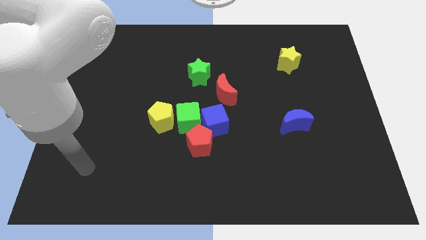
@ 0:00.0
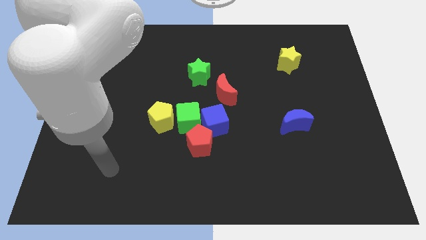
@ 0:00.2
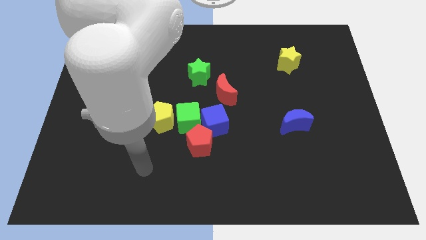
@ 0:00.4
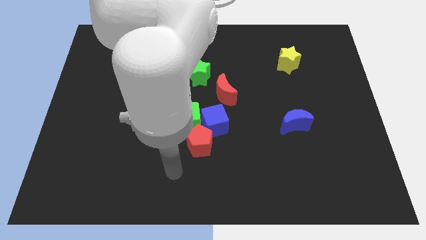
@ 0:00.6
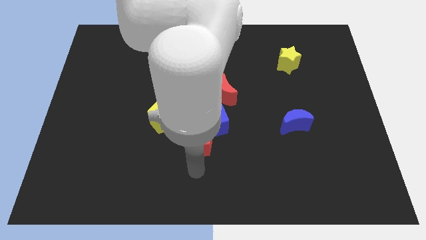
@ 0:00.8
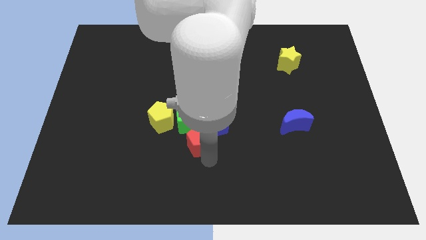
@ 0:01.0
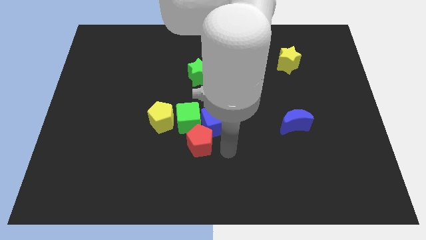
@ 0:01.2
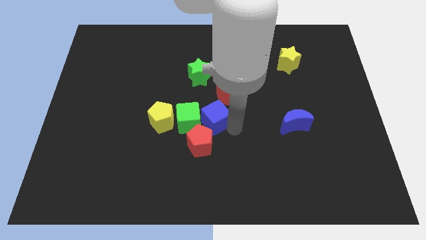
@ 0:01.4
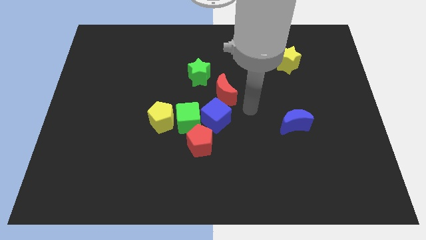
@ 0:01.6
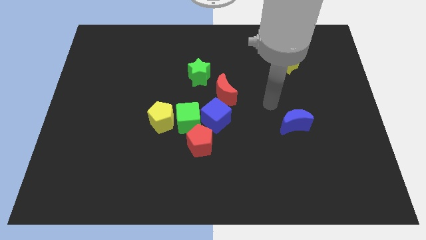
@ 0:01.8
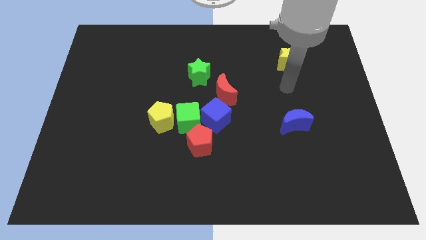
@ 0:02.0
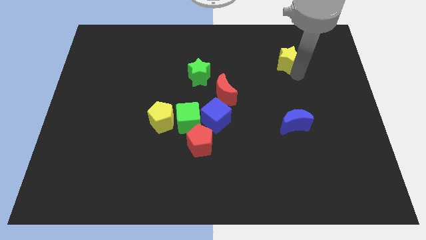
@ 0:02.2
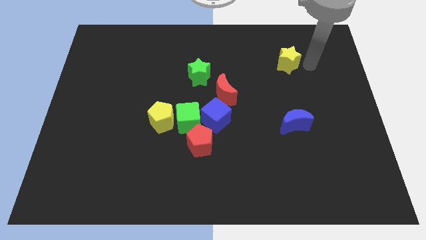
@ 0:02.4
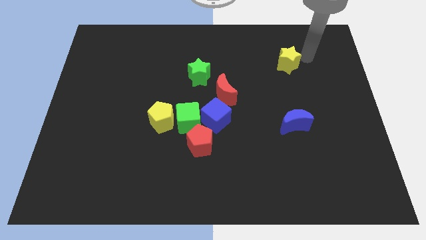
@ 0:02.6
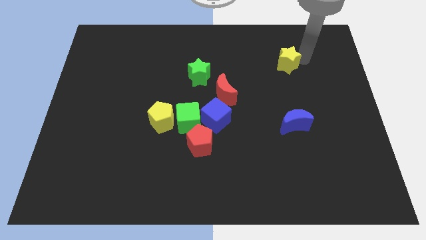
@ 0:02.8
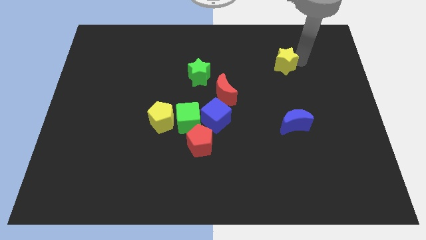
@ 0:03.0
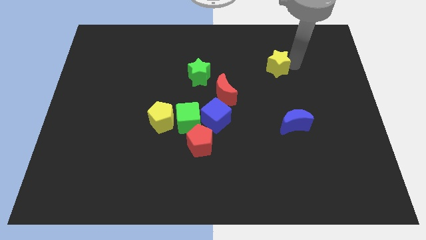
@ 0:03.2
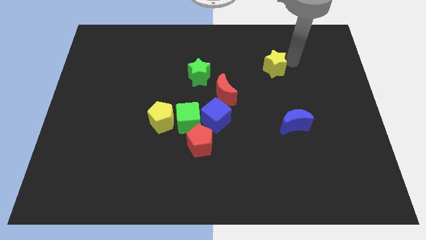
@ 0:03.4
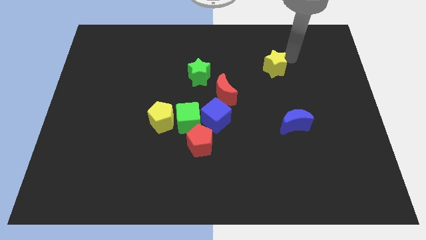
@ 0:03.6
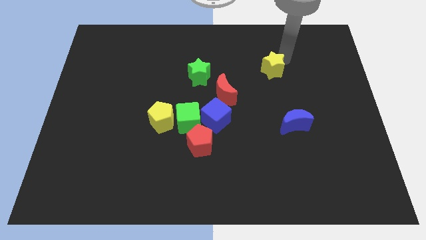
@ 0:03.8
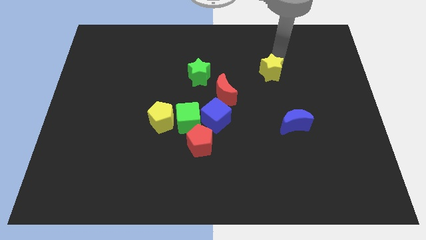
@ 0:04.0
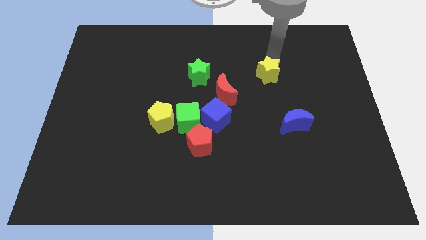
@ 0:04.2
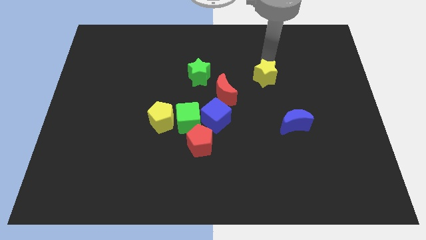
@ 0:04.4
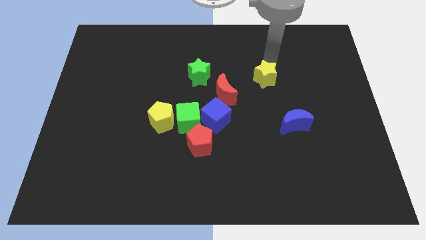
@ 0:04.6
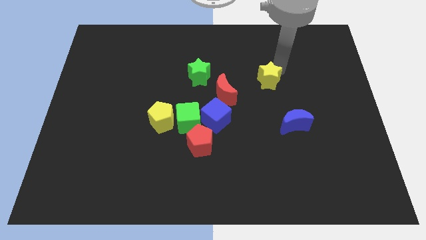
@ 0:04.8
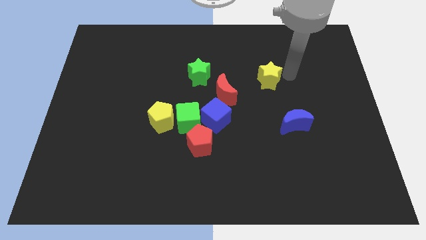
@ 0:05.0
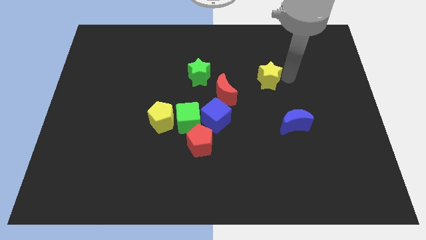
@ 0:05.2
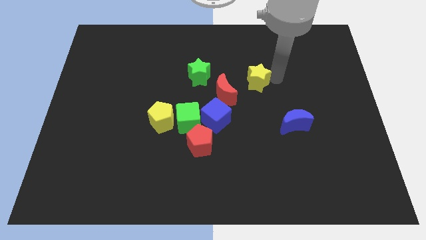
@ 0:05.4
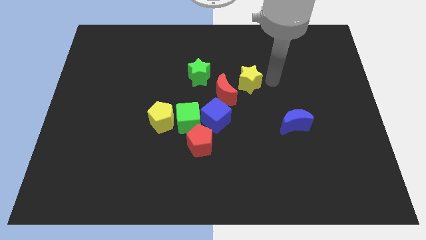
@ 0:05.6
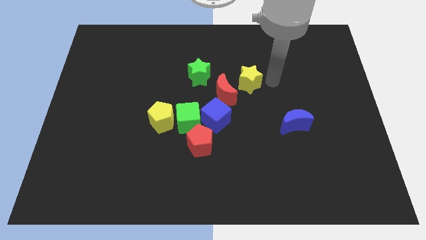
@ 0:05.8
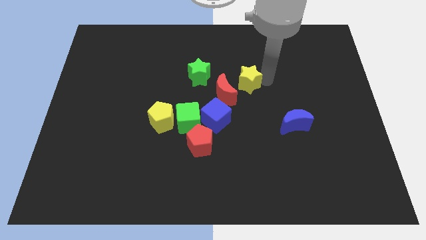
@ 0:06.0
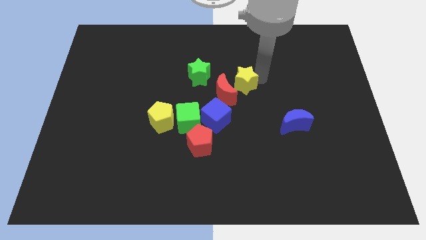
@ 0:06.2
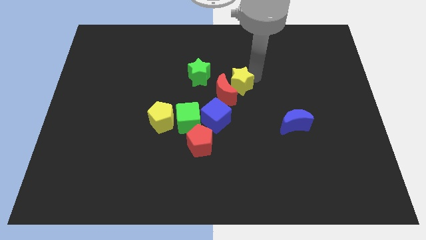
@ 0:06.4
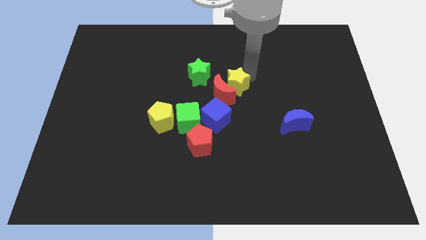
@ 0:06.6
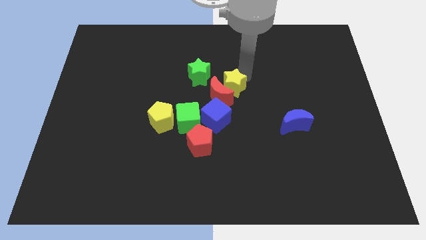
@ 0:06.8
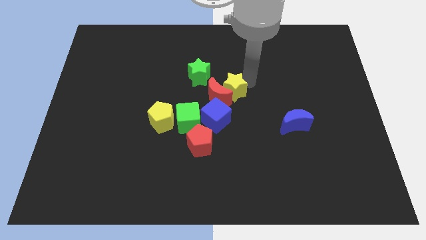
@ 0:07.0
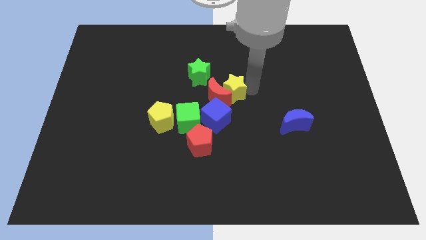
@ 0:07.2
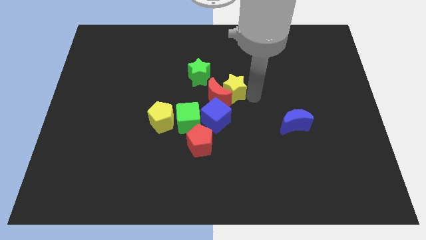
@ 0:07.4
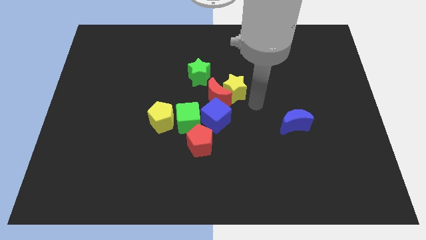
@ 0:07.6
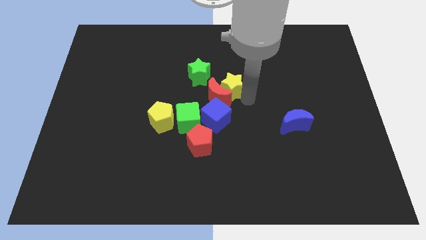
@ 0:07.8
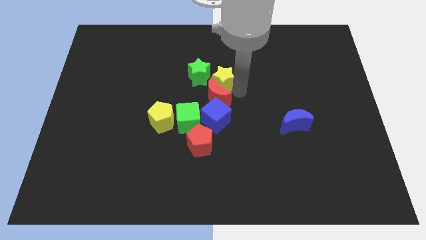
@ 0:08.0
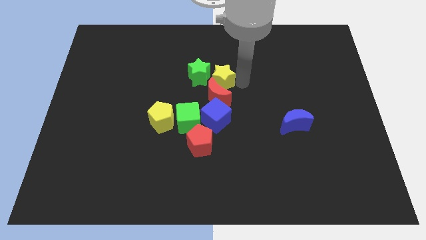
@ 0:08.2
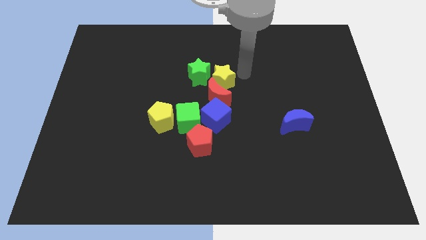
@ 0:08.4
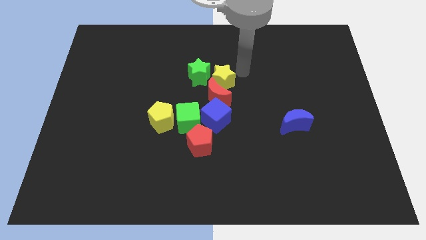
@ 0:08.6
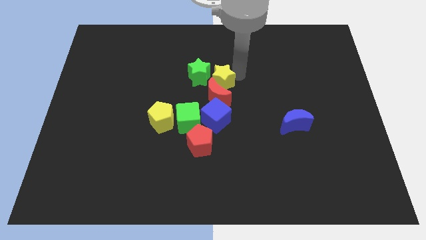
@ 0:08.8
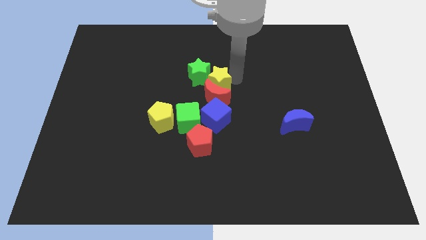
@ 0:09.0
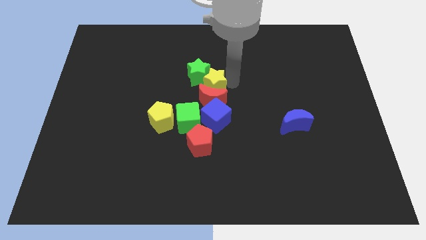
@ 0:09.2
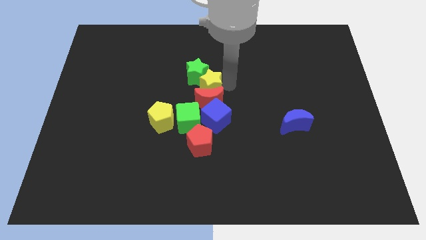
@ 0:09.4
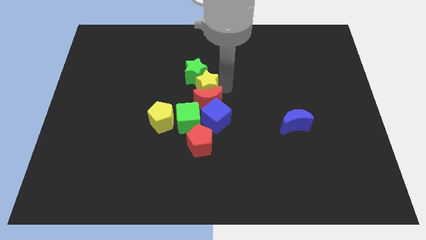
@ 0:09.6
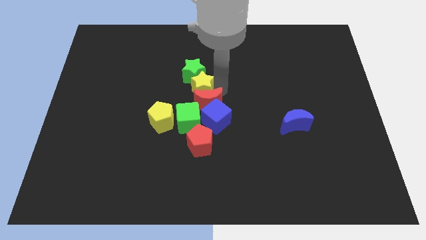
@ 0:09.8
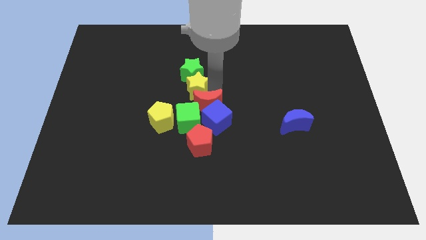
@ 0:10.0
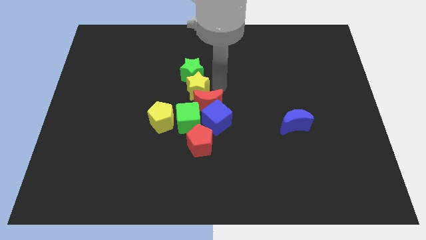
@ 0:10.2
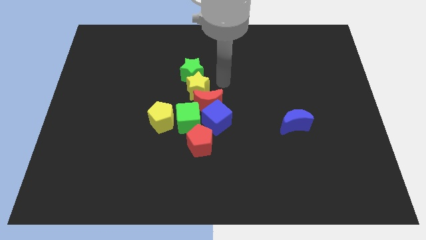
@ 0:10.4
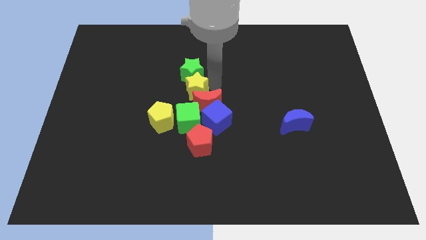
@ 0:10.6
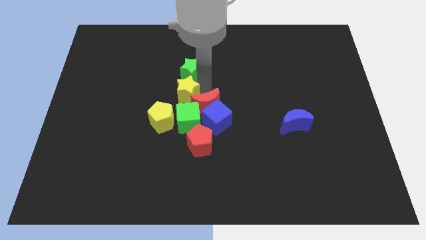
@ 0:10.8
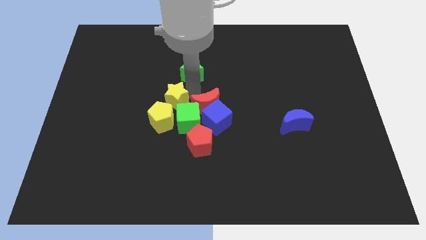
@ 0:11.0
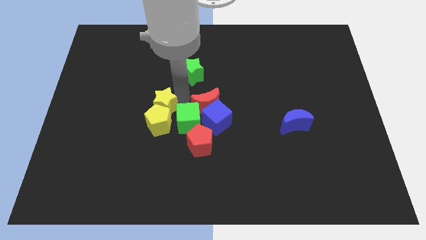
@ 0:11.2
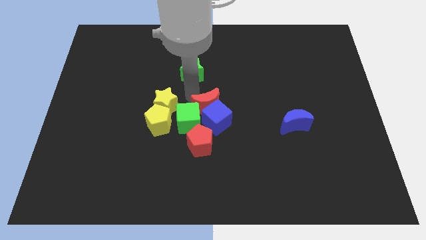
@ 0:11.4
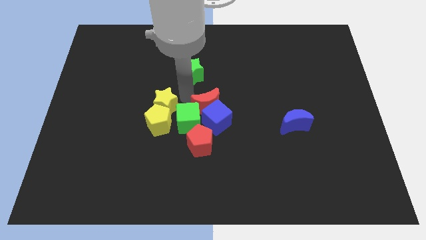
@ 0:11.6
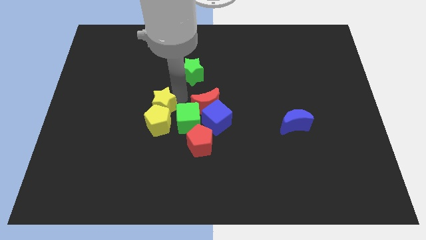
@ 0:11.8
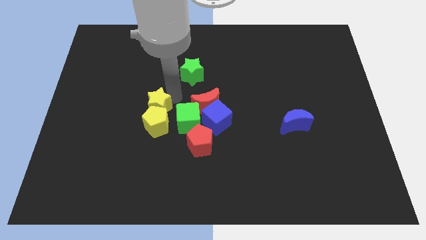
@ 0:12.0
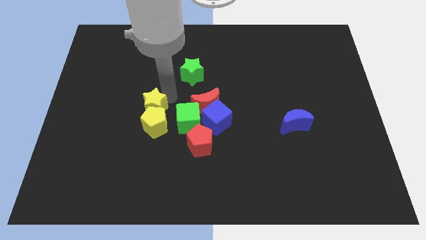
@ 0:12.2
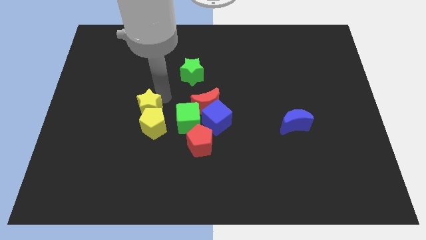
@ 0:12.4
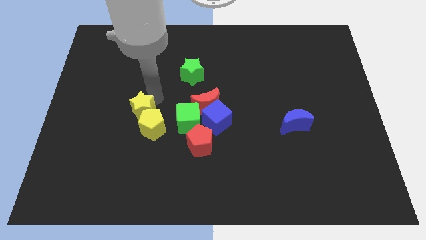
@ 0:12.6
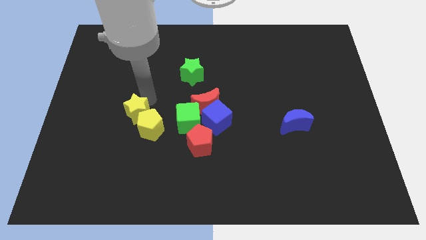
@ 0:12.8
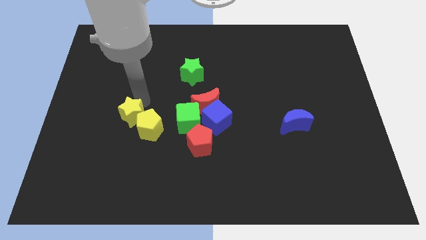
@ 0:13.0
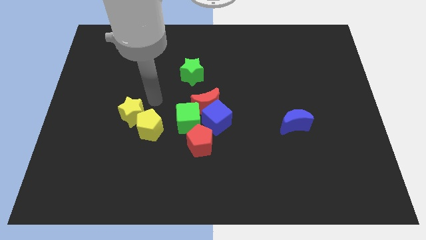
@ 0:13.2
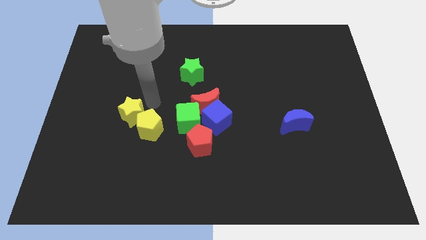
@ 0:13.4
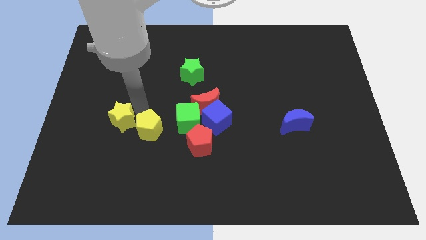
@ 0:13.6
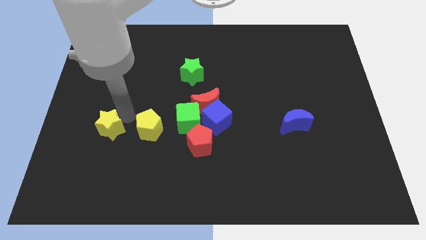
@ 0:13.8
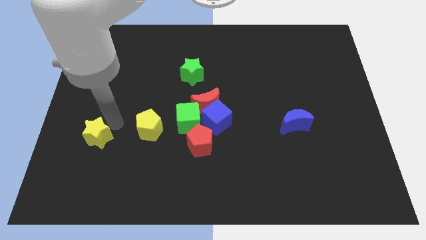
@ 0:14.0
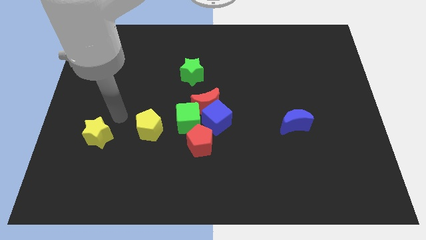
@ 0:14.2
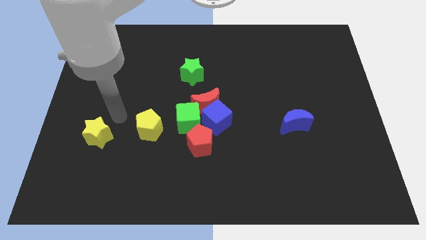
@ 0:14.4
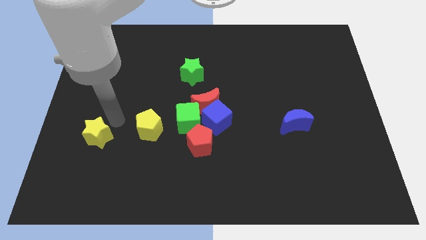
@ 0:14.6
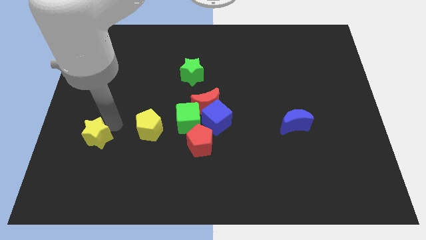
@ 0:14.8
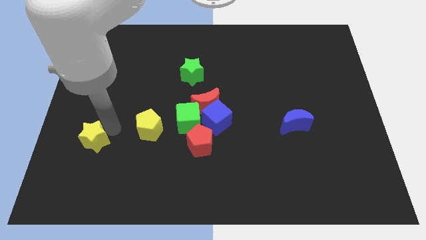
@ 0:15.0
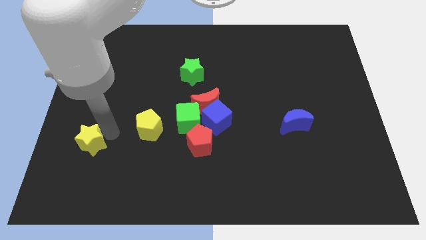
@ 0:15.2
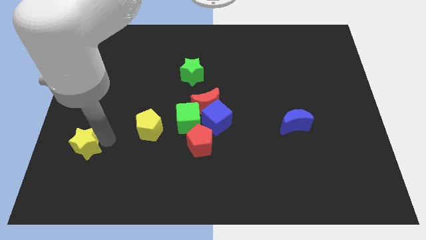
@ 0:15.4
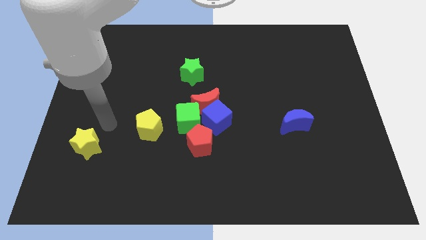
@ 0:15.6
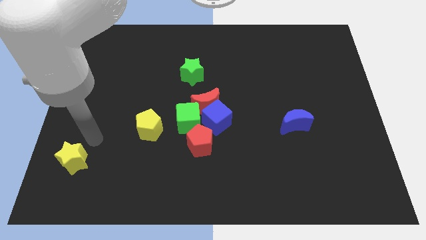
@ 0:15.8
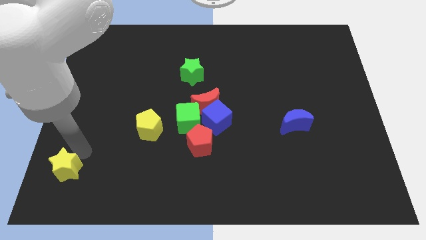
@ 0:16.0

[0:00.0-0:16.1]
push the yellow star to the bottom left corner
